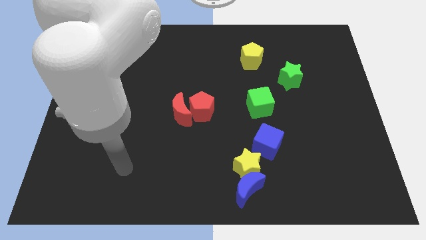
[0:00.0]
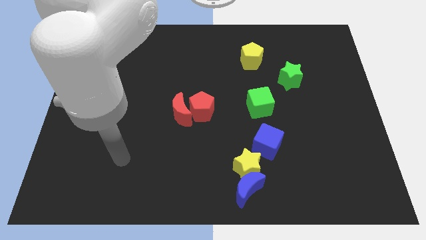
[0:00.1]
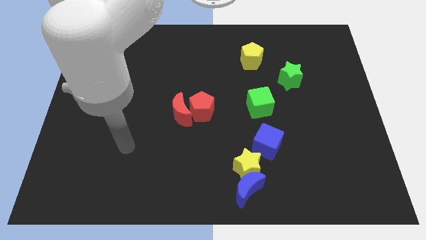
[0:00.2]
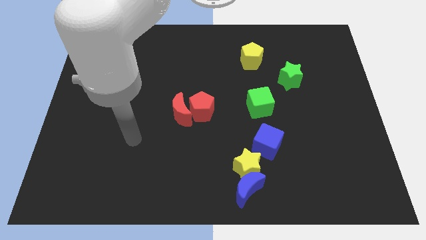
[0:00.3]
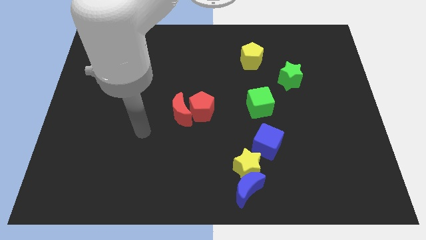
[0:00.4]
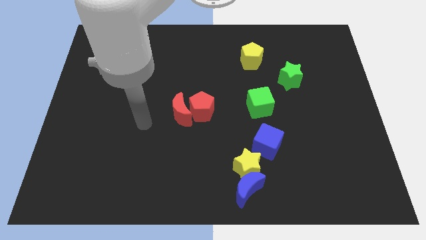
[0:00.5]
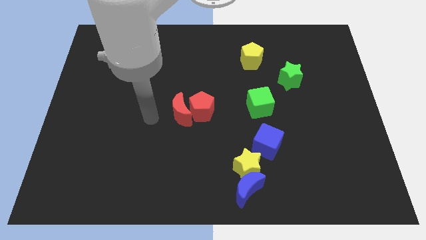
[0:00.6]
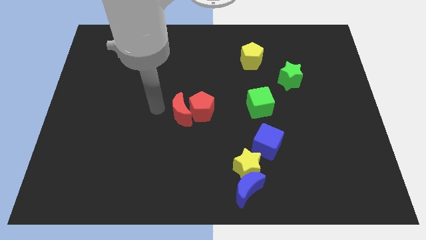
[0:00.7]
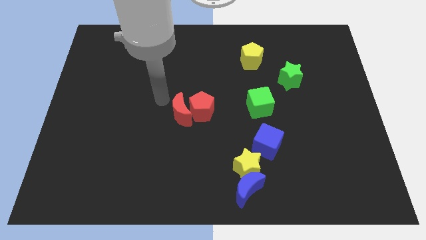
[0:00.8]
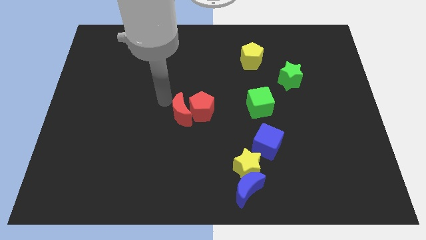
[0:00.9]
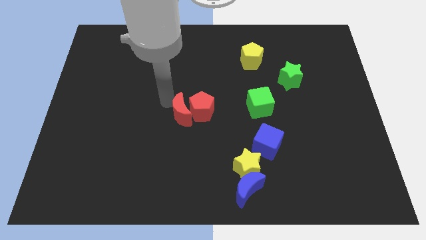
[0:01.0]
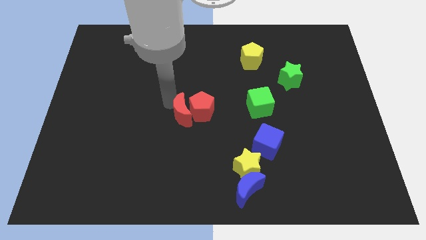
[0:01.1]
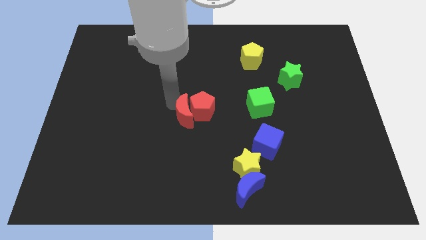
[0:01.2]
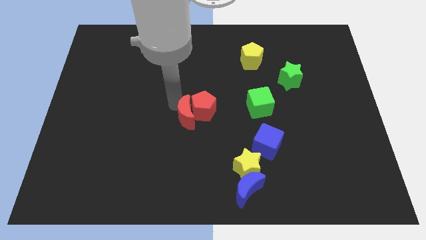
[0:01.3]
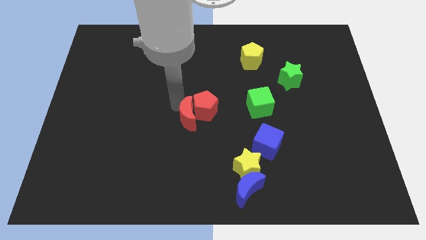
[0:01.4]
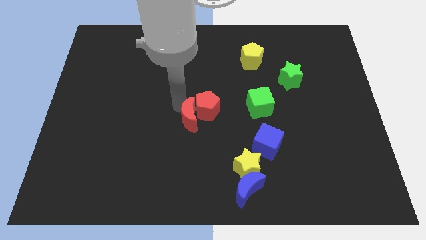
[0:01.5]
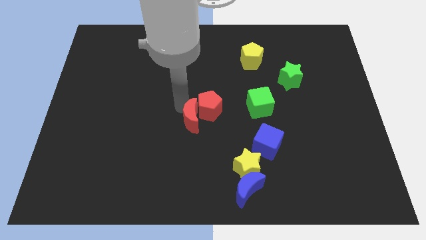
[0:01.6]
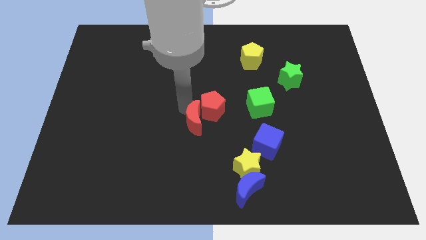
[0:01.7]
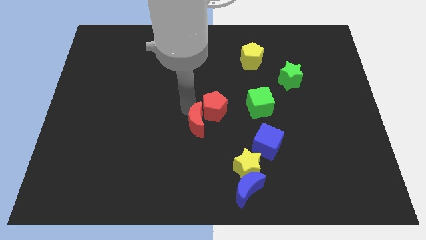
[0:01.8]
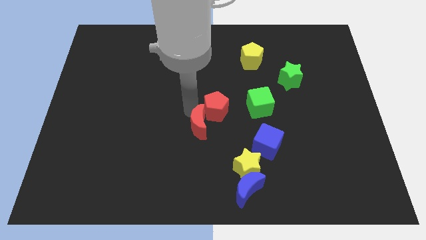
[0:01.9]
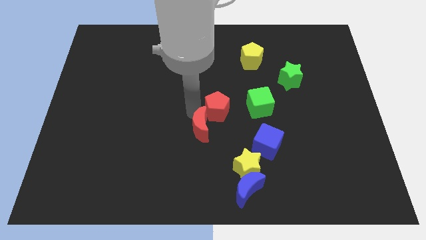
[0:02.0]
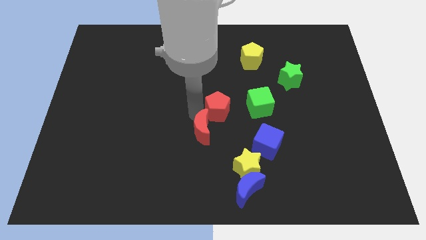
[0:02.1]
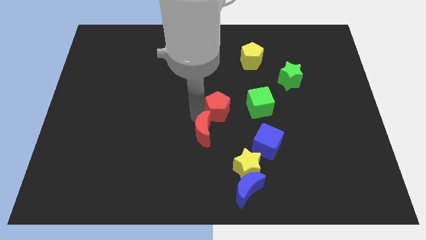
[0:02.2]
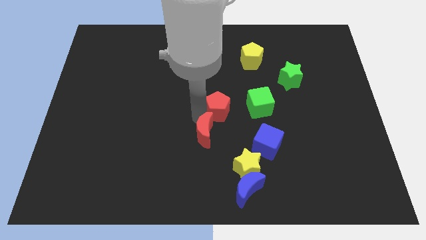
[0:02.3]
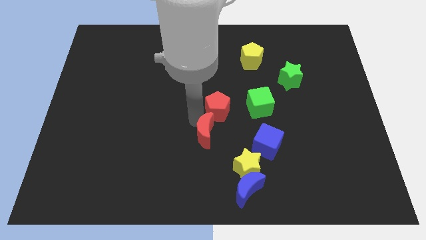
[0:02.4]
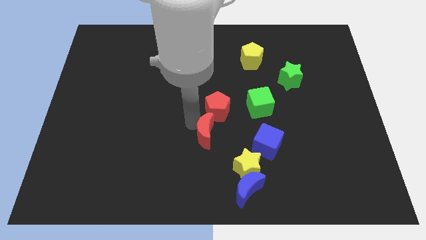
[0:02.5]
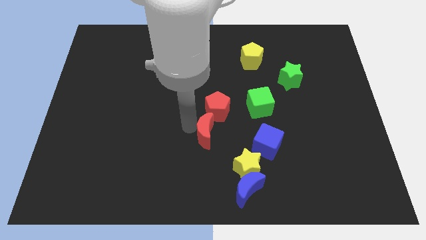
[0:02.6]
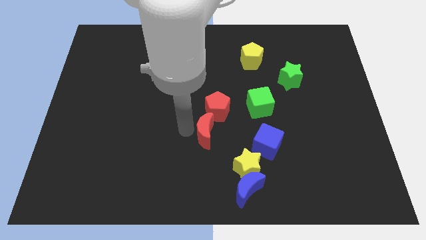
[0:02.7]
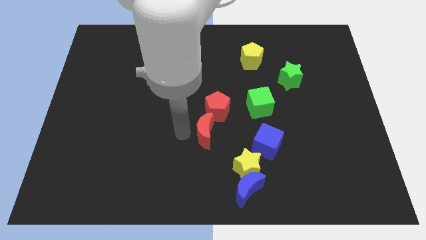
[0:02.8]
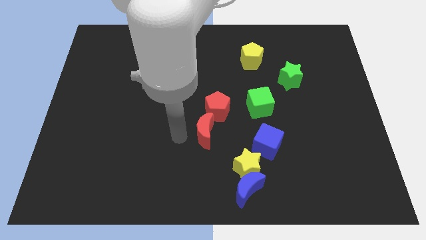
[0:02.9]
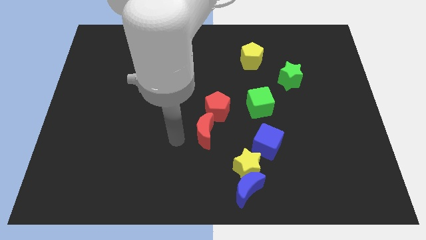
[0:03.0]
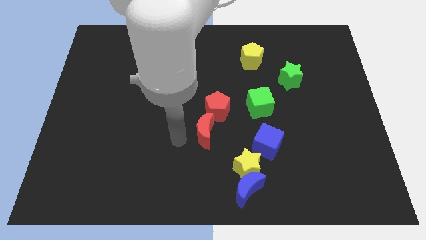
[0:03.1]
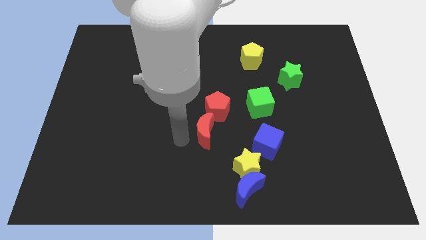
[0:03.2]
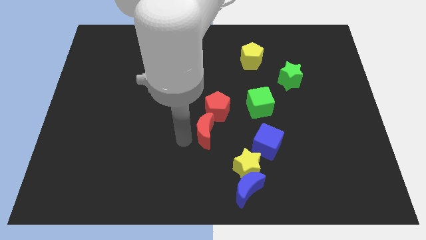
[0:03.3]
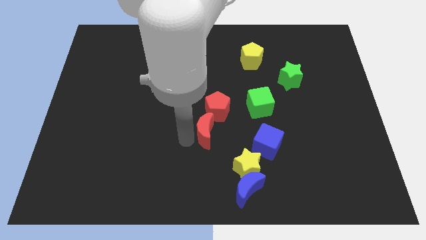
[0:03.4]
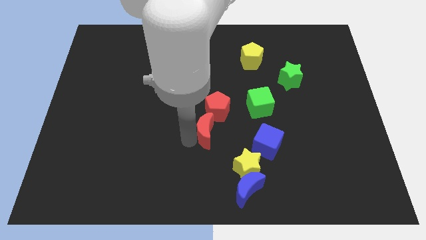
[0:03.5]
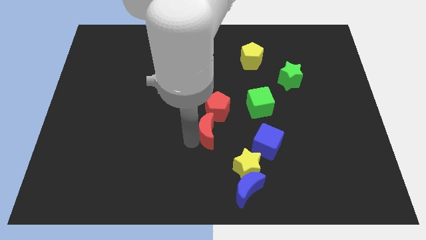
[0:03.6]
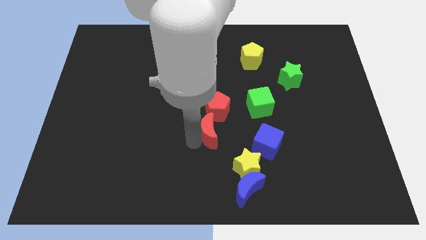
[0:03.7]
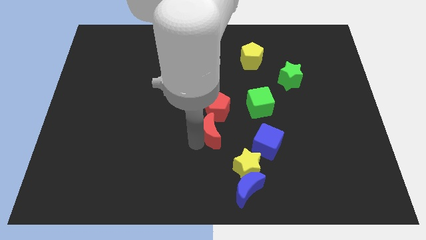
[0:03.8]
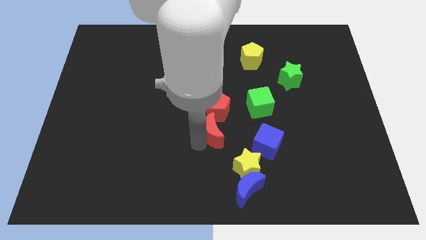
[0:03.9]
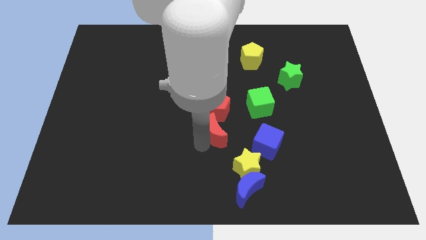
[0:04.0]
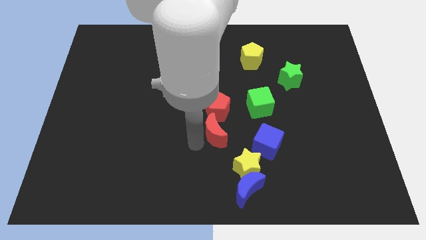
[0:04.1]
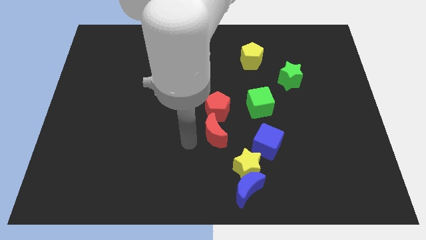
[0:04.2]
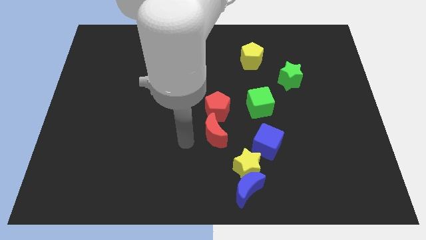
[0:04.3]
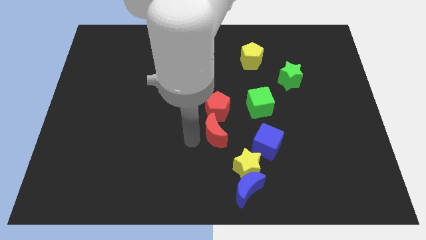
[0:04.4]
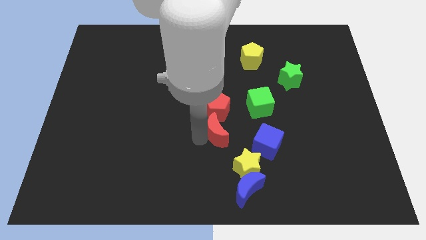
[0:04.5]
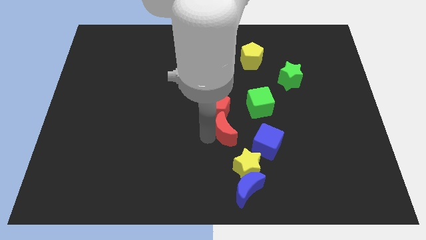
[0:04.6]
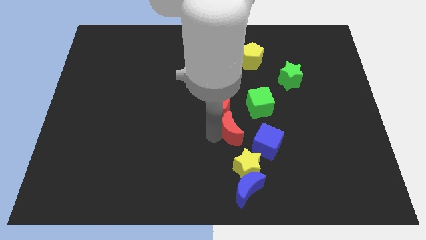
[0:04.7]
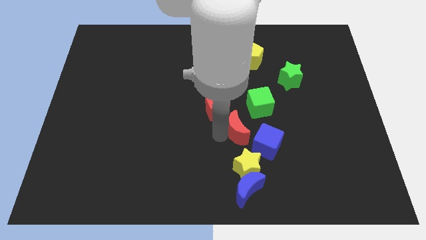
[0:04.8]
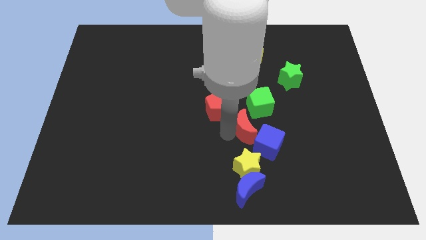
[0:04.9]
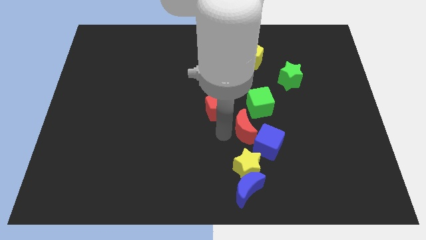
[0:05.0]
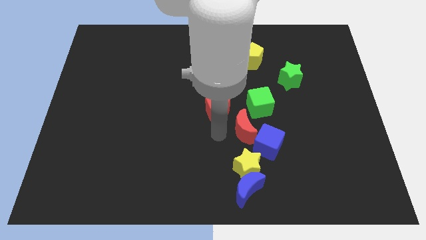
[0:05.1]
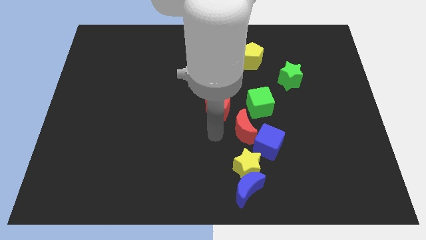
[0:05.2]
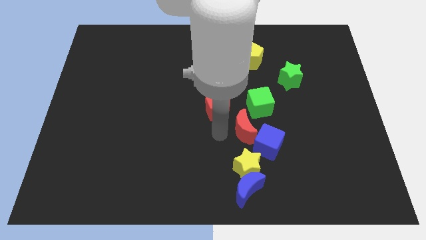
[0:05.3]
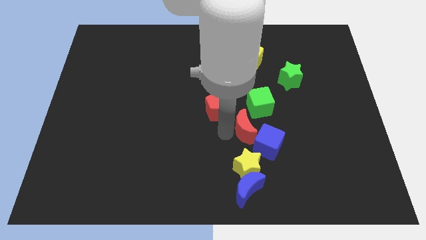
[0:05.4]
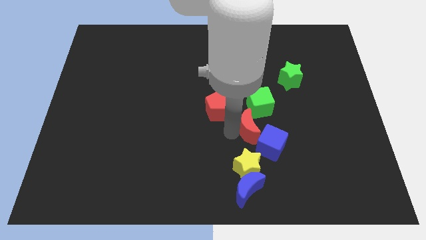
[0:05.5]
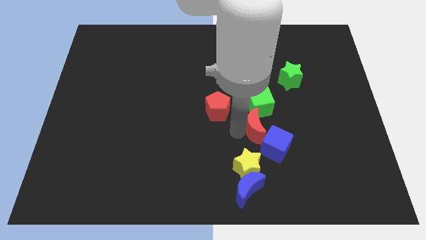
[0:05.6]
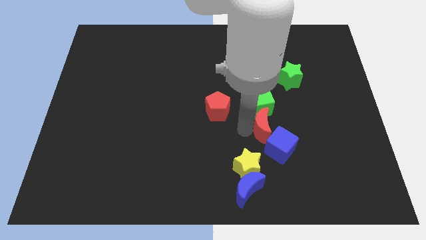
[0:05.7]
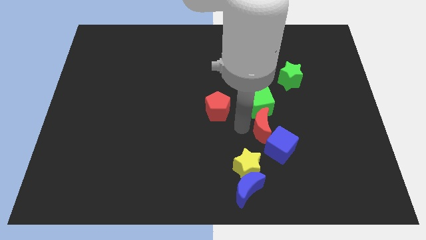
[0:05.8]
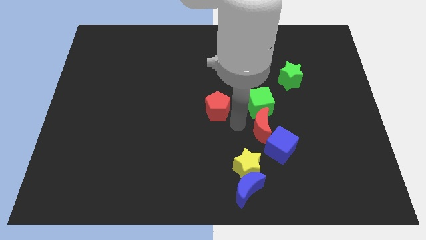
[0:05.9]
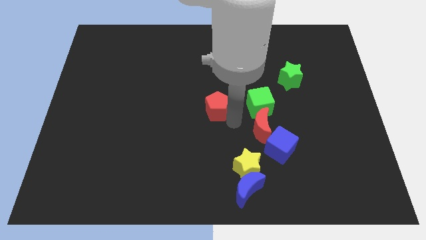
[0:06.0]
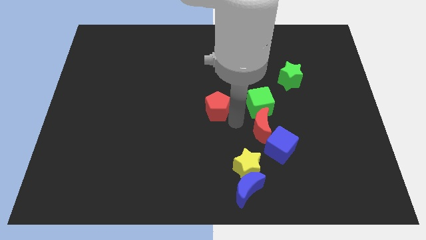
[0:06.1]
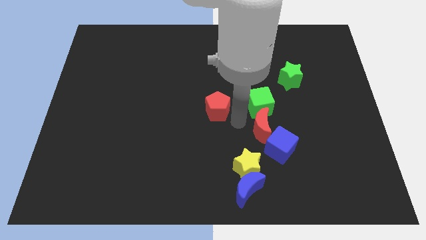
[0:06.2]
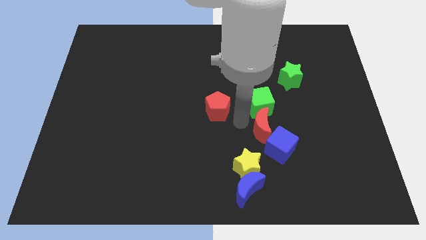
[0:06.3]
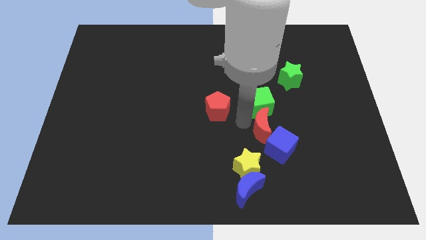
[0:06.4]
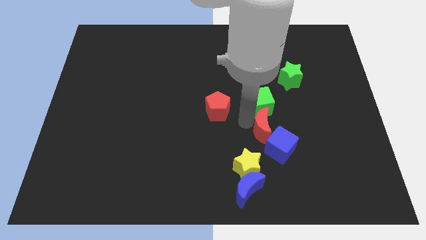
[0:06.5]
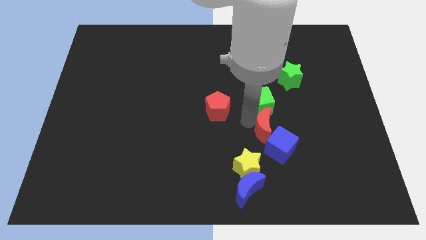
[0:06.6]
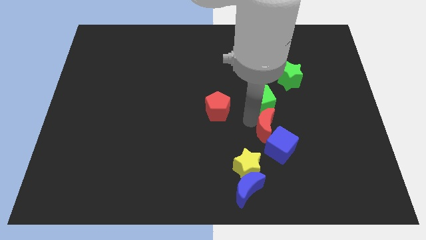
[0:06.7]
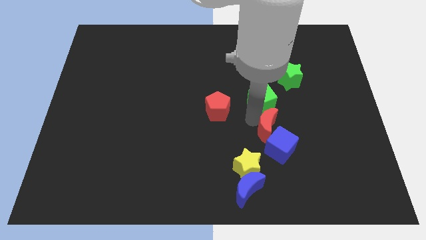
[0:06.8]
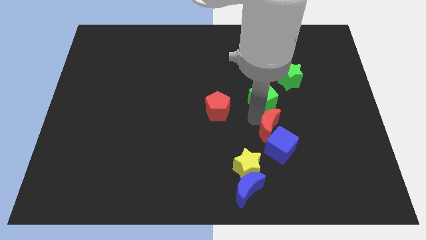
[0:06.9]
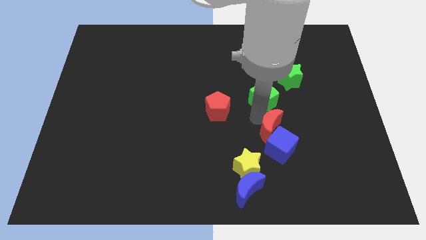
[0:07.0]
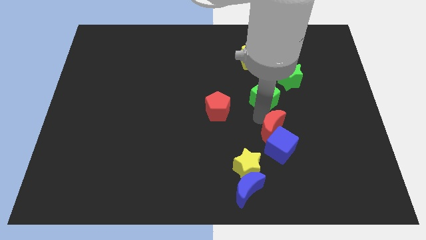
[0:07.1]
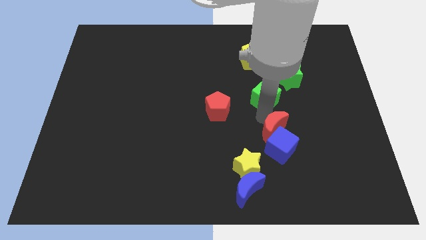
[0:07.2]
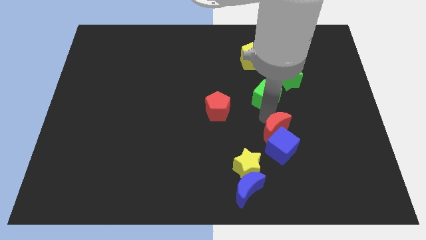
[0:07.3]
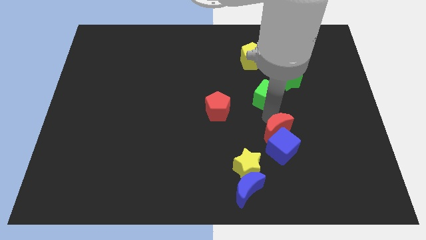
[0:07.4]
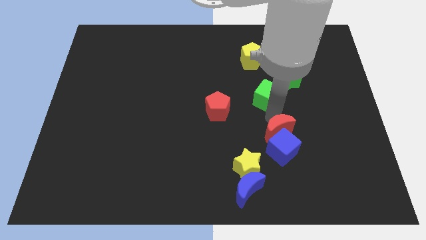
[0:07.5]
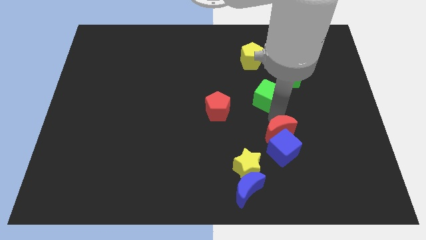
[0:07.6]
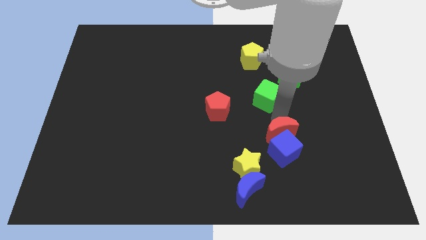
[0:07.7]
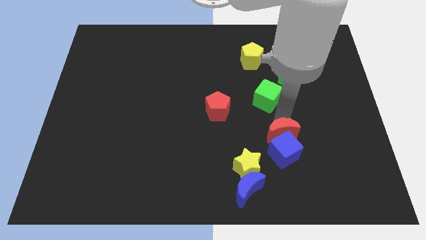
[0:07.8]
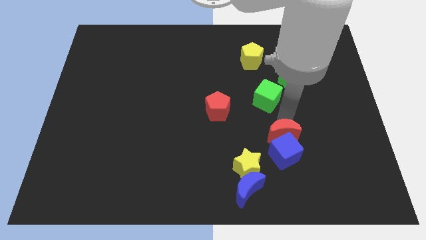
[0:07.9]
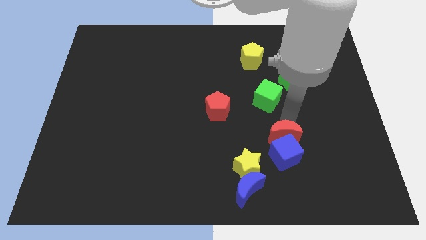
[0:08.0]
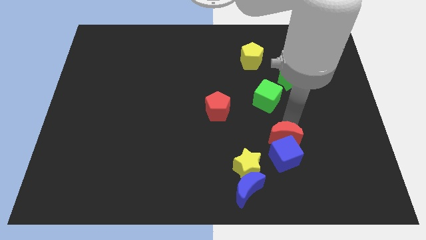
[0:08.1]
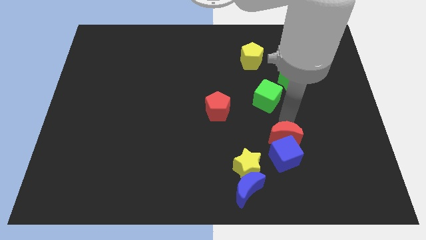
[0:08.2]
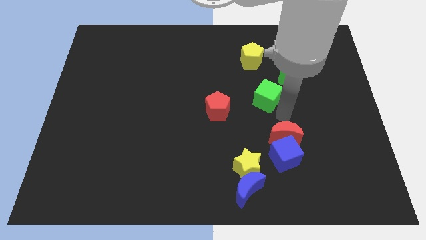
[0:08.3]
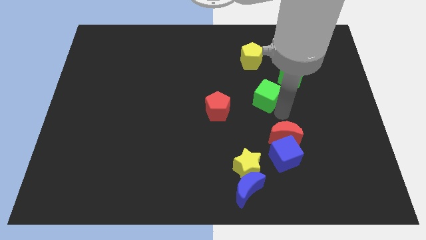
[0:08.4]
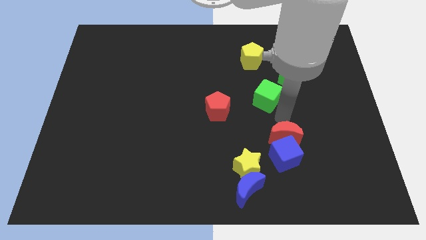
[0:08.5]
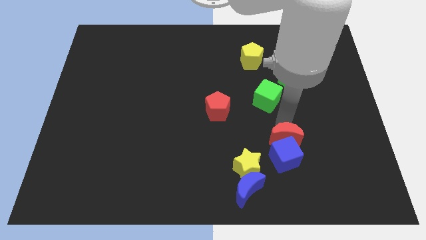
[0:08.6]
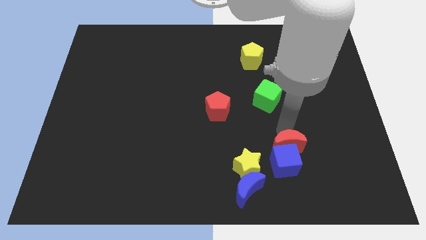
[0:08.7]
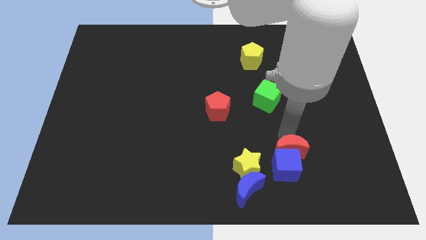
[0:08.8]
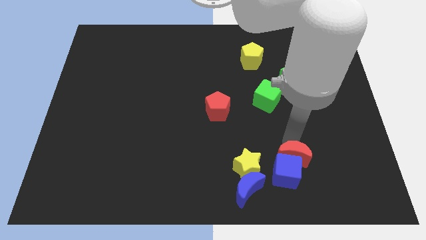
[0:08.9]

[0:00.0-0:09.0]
push the red moon diagonally up and to the right of the blue moon
